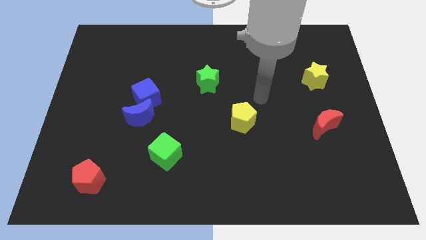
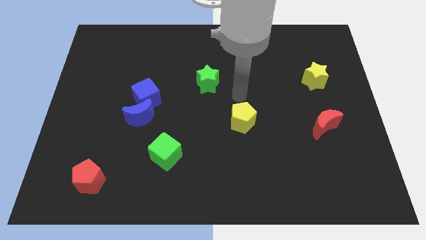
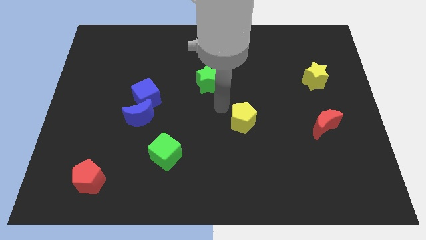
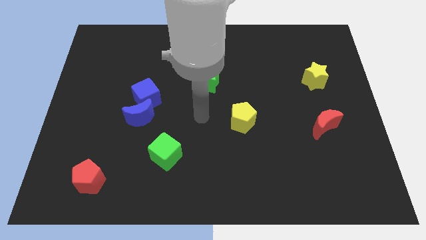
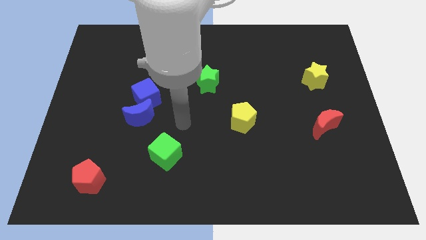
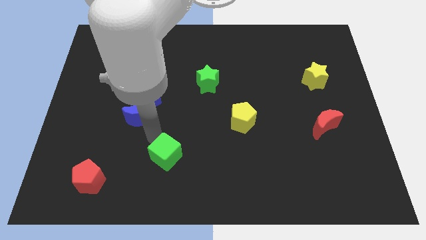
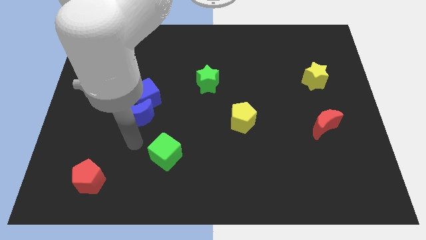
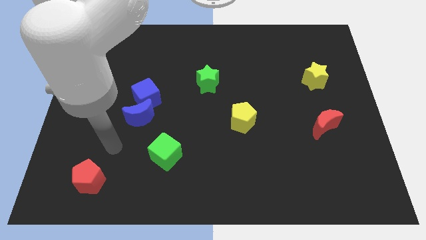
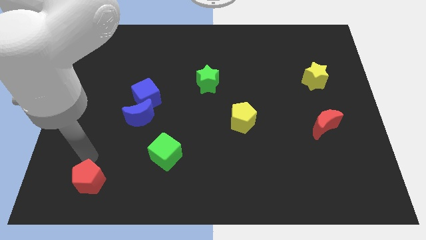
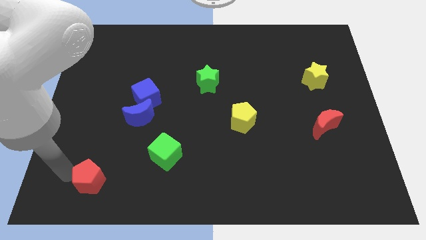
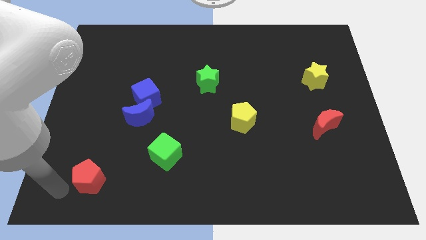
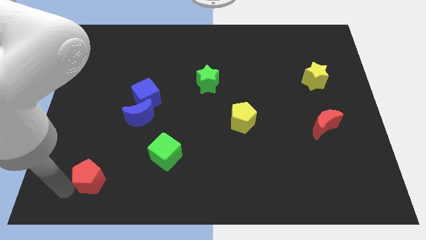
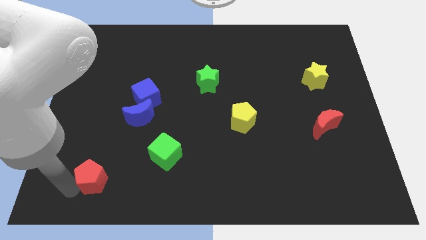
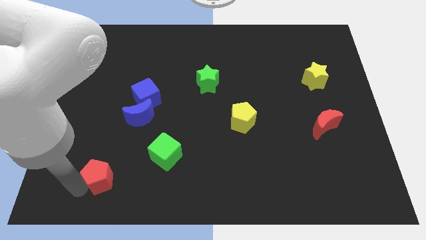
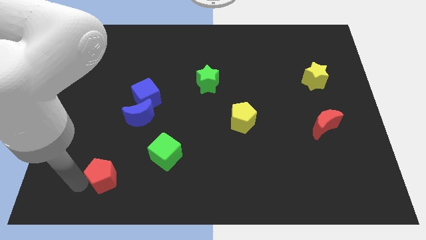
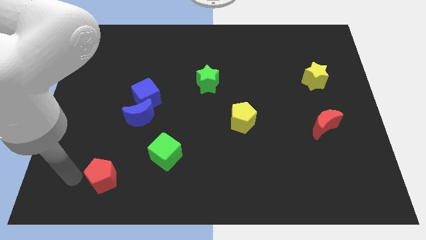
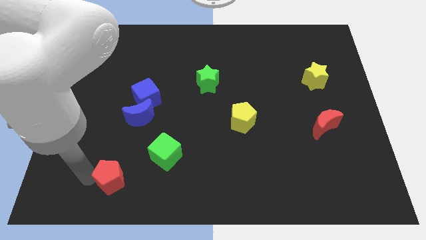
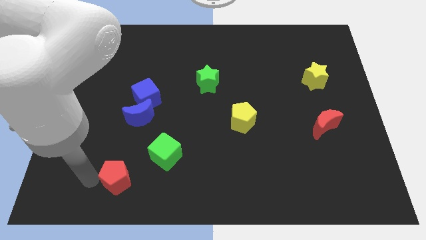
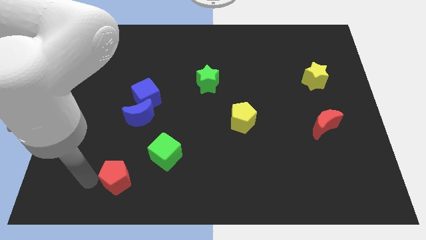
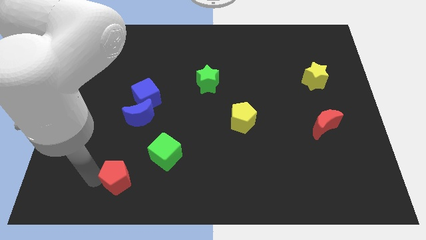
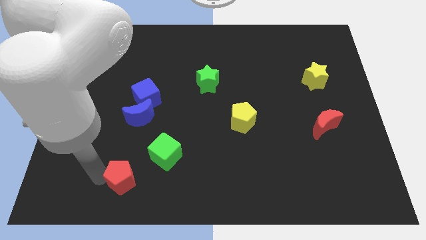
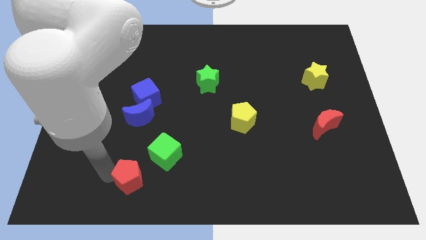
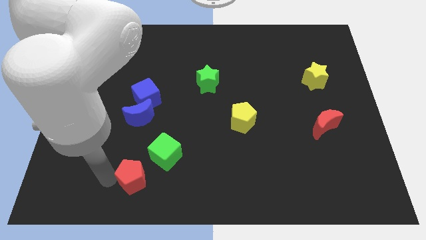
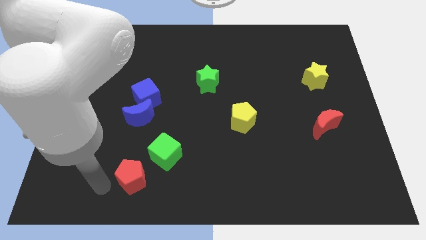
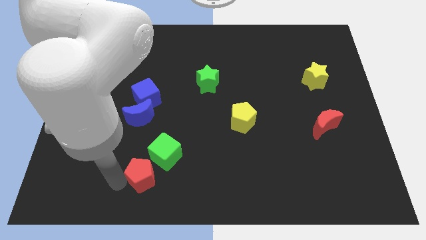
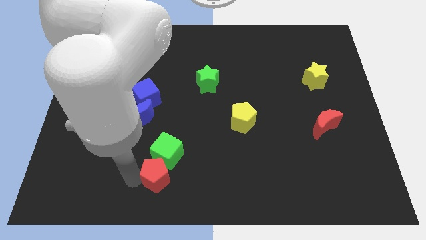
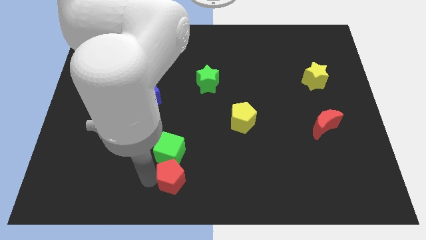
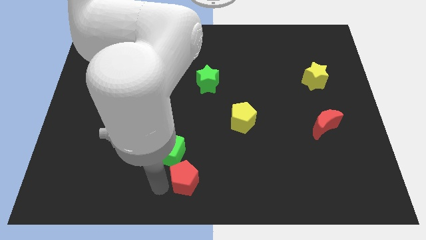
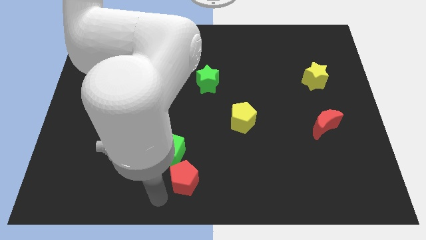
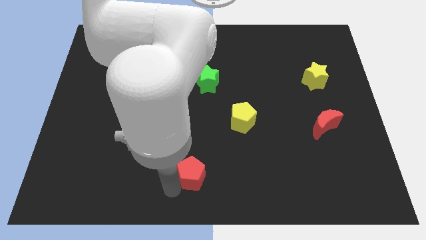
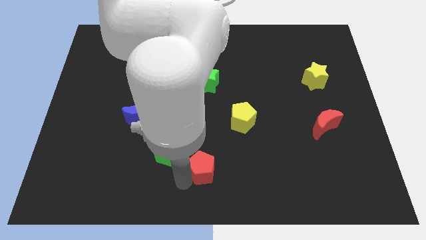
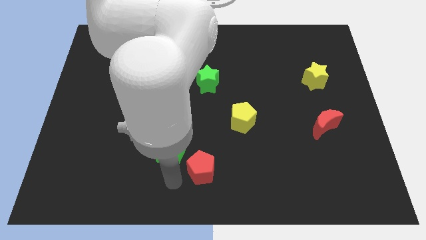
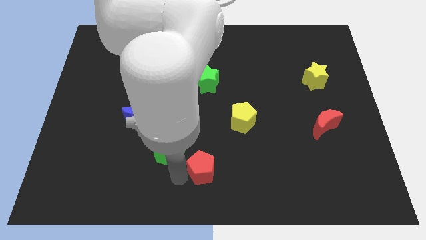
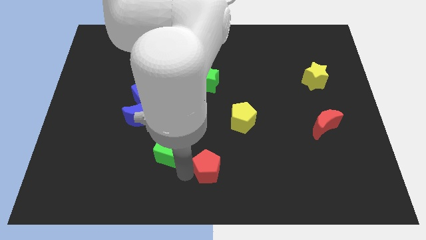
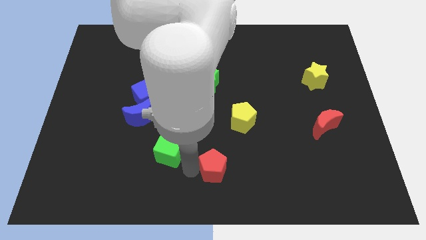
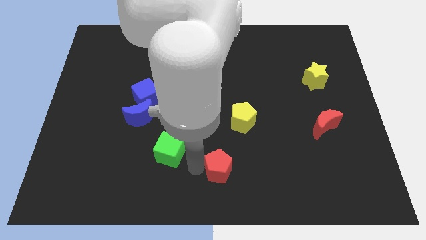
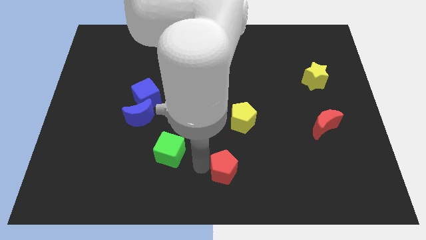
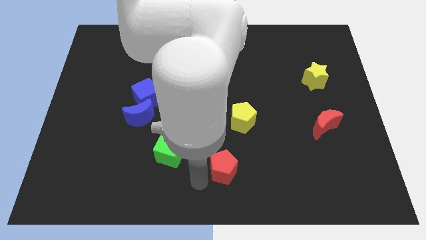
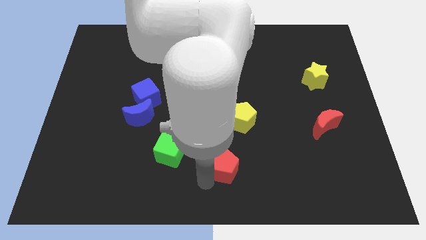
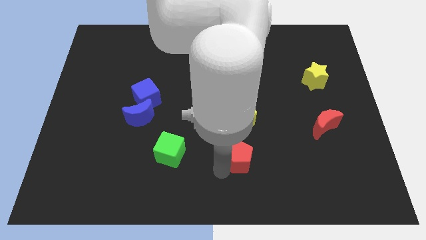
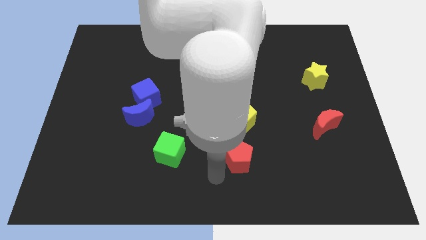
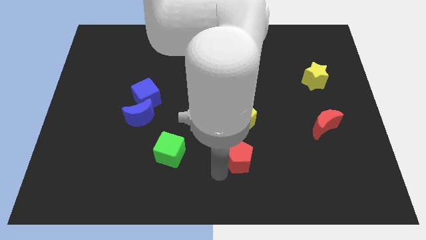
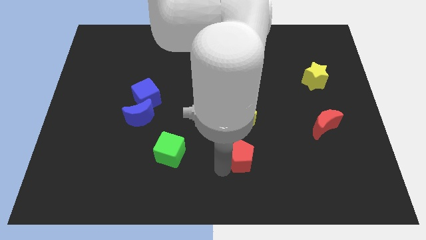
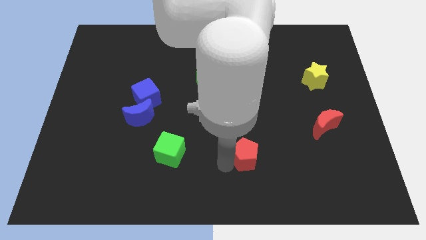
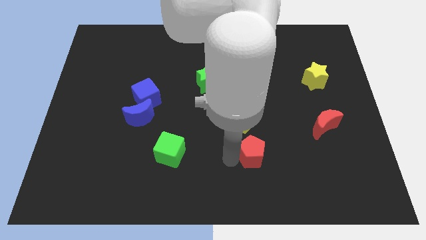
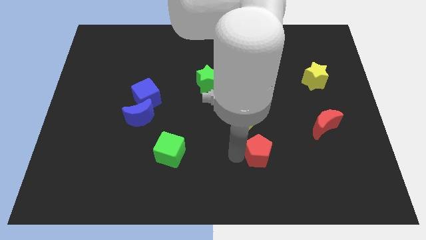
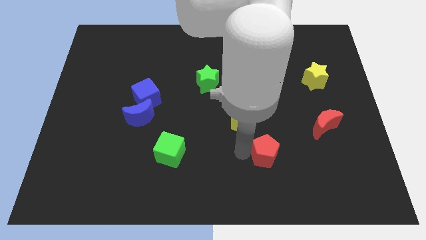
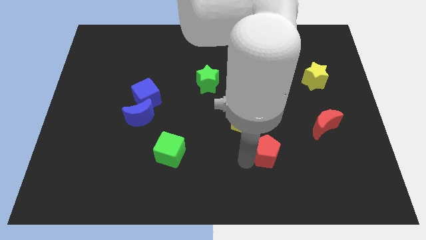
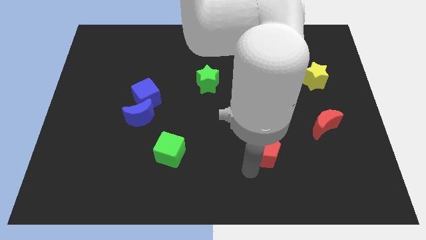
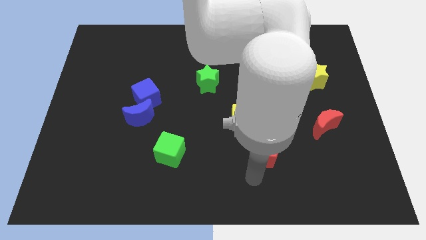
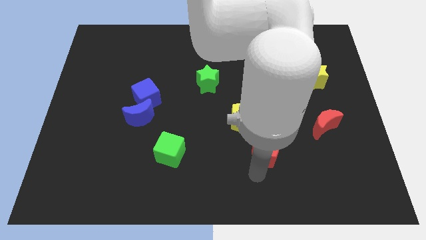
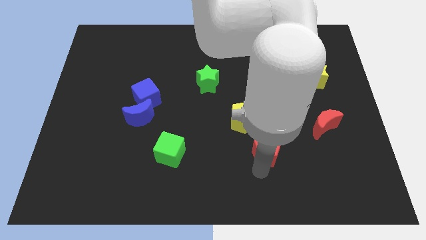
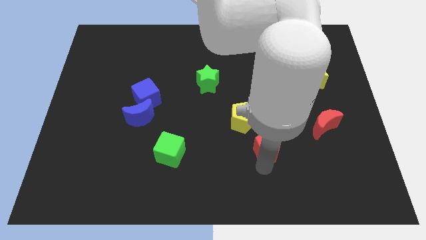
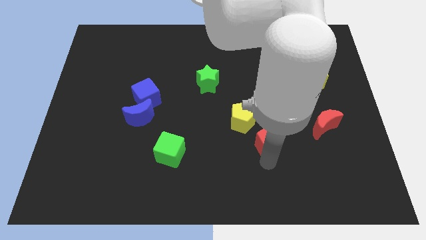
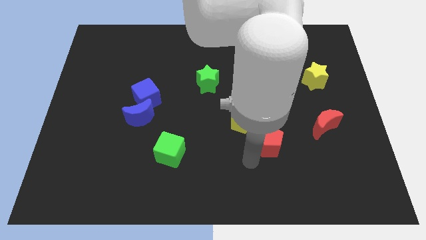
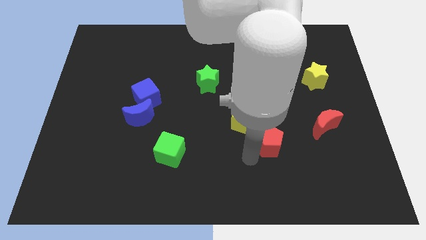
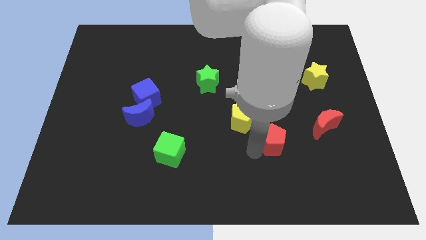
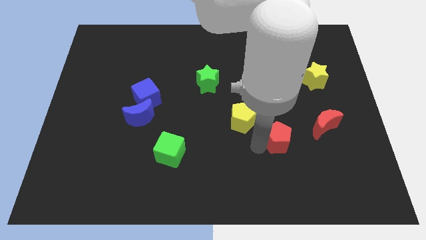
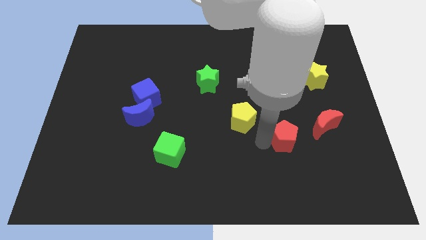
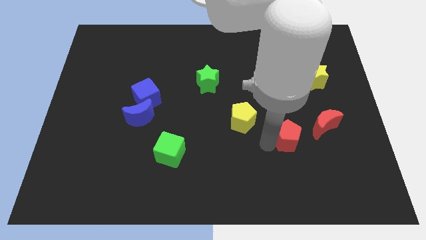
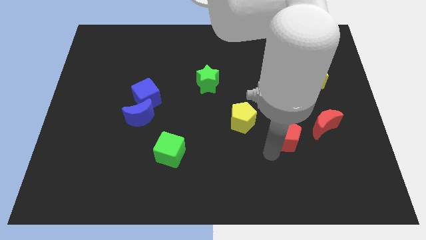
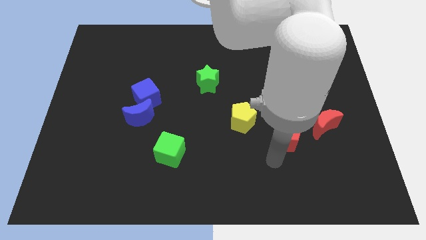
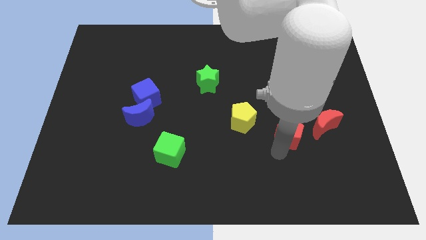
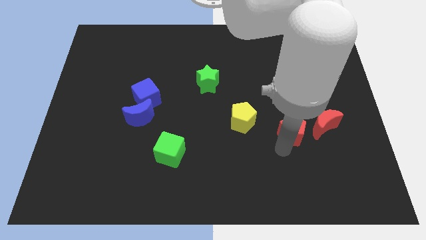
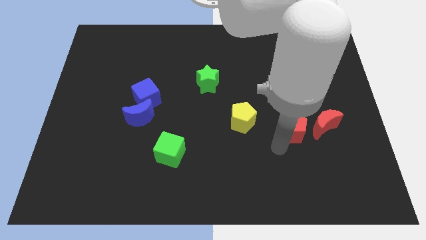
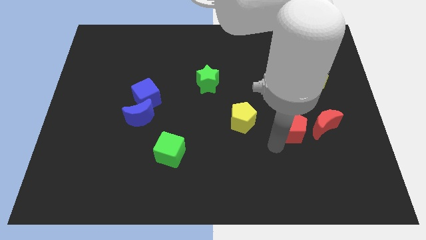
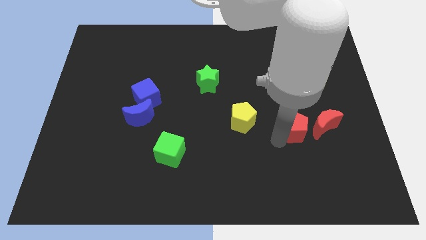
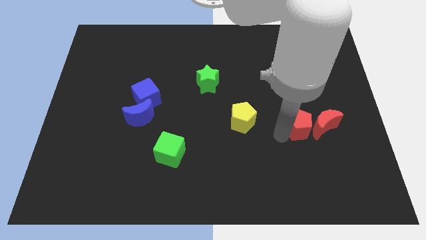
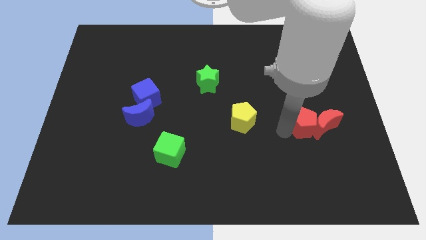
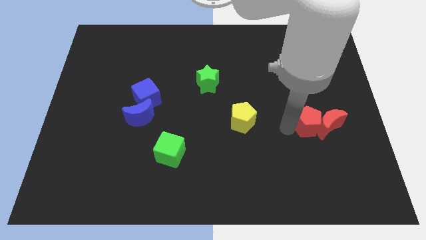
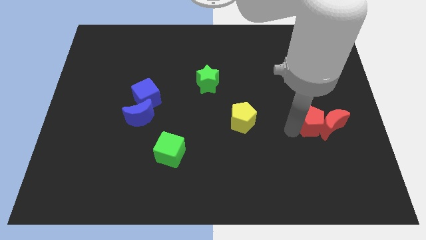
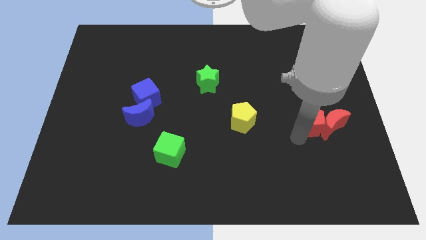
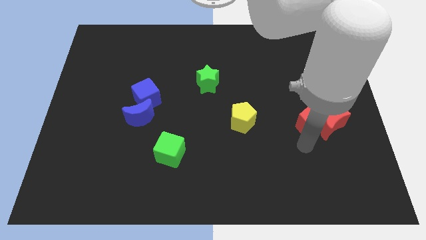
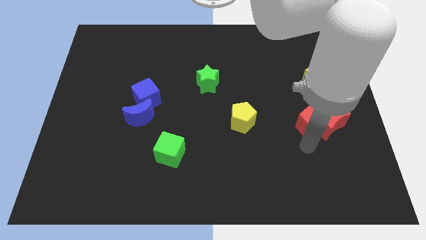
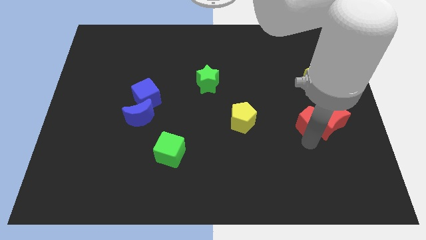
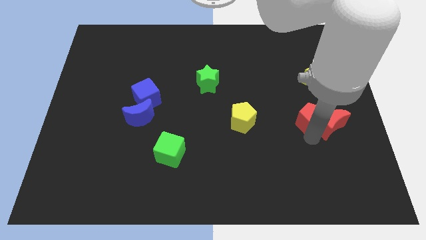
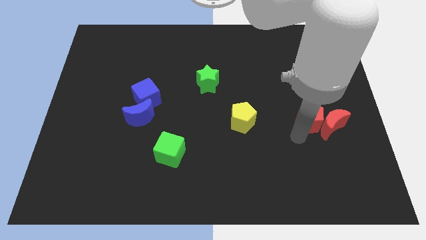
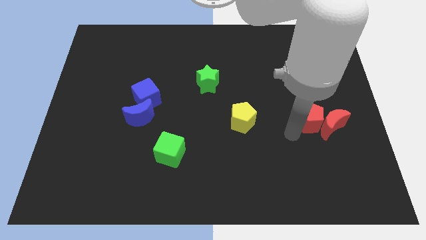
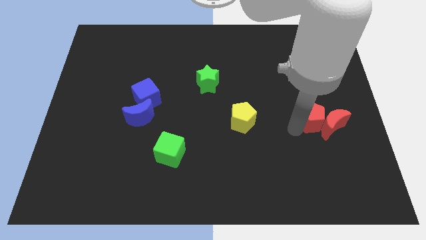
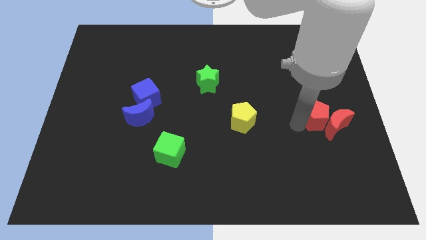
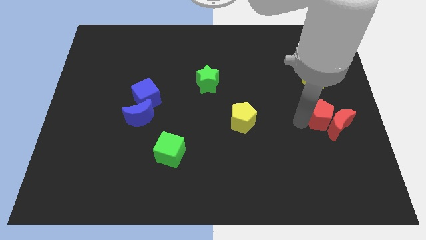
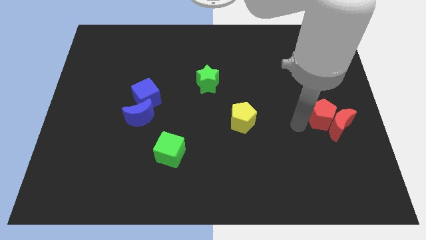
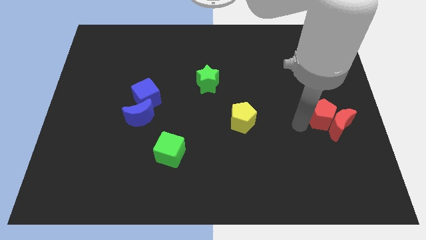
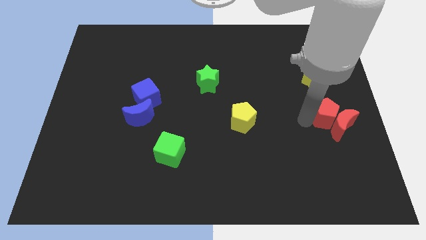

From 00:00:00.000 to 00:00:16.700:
put the red pentagon to the right side
